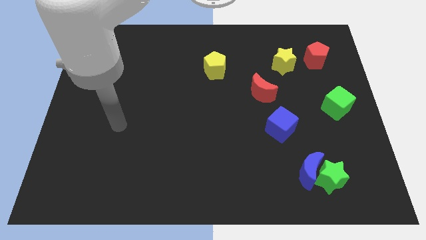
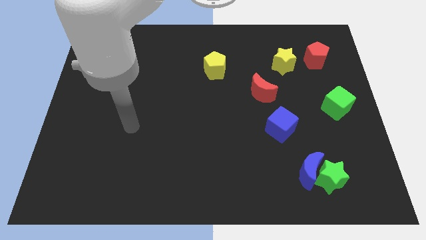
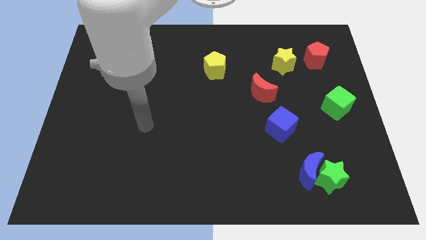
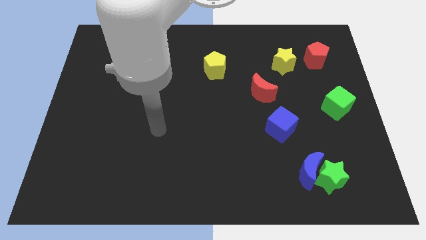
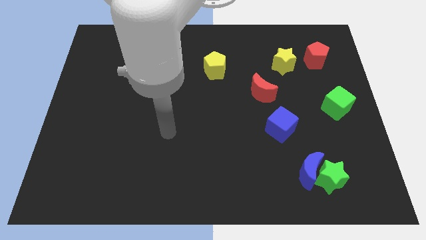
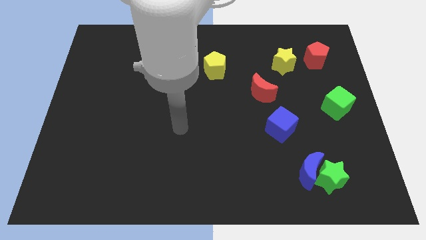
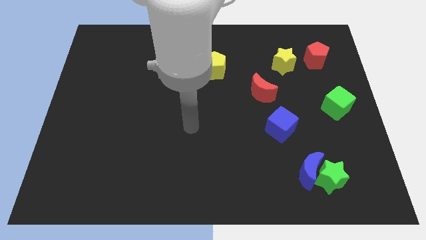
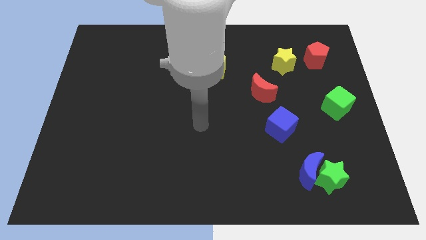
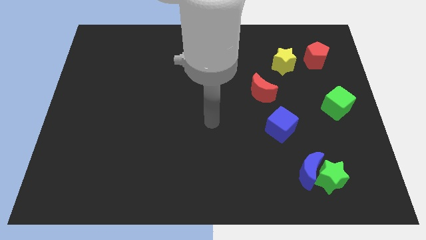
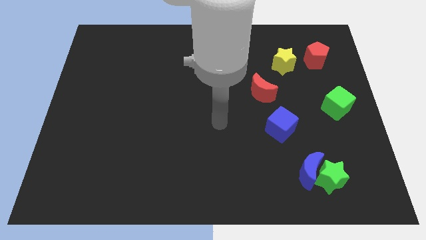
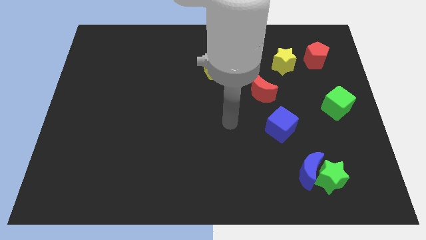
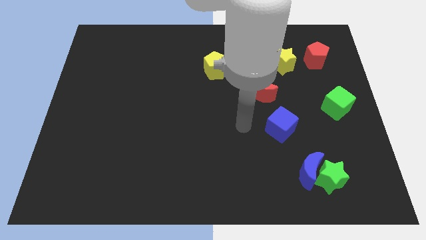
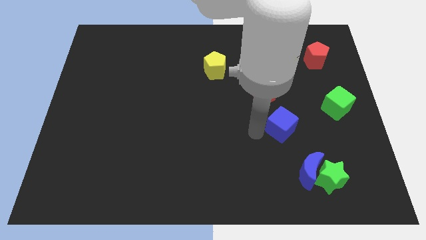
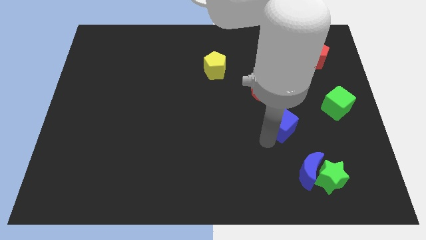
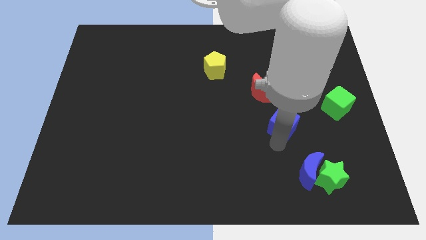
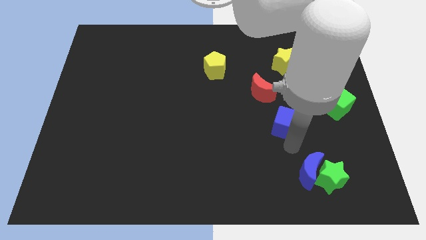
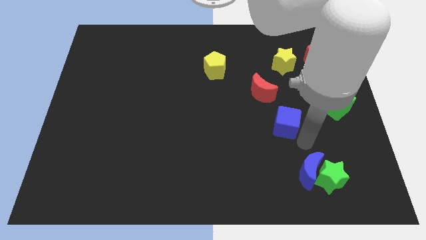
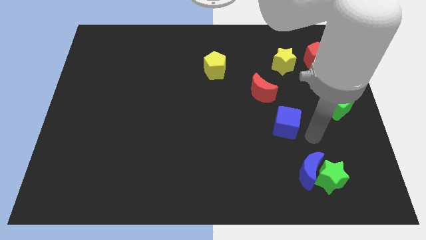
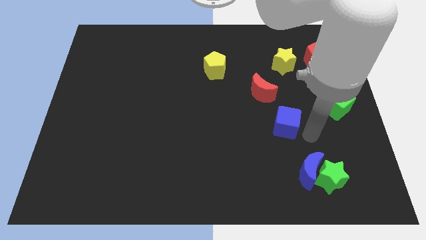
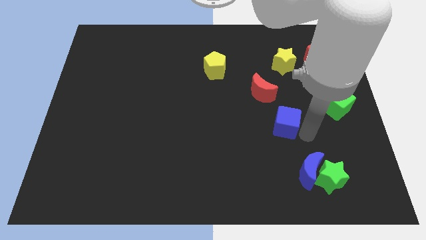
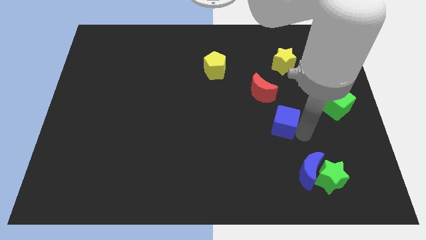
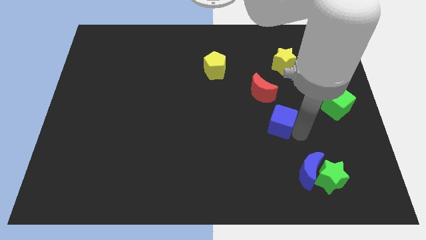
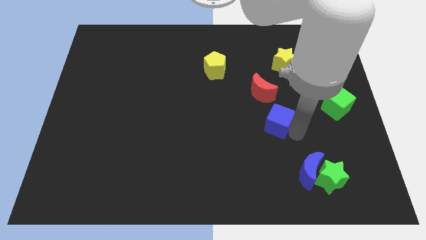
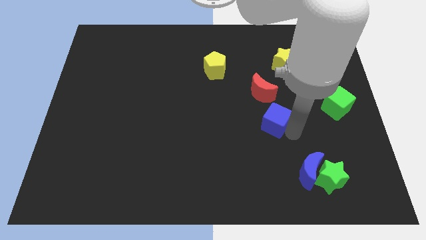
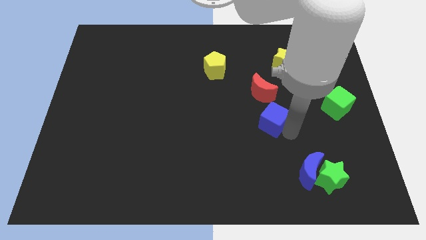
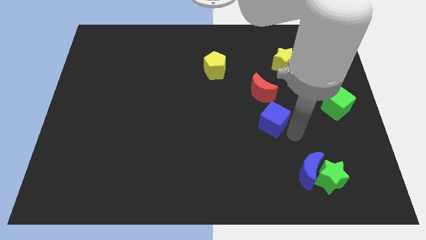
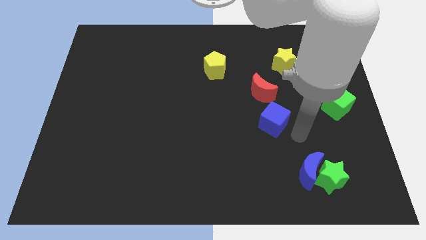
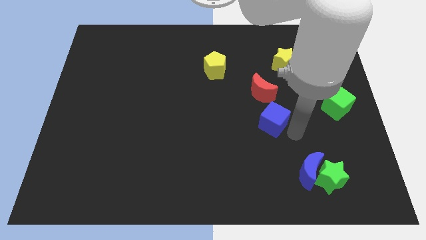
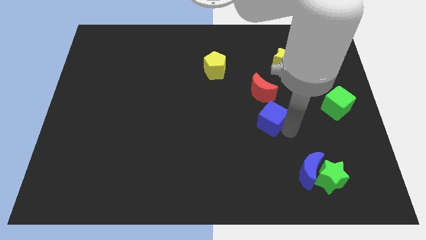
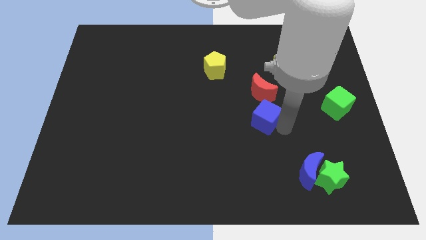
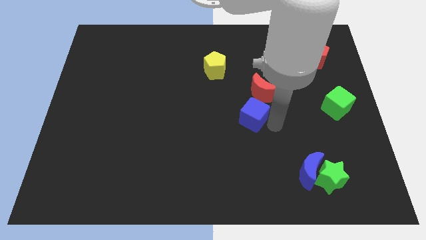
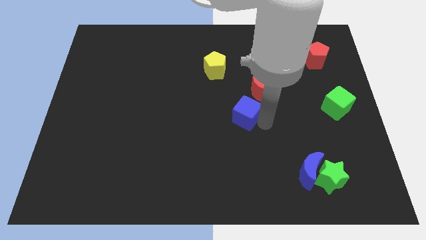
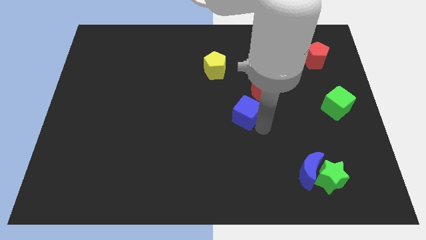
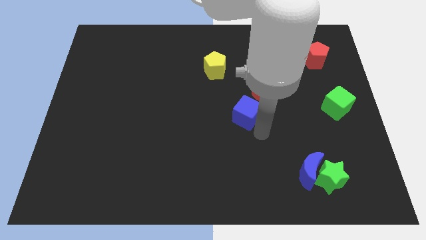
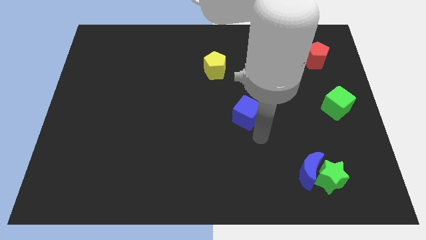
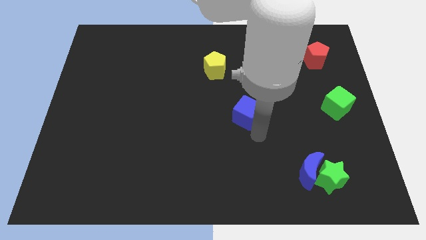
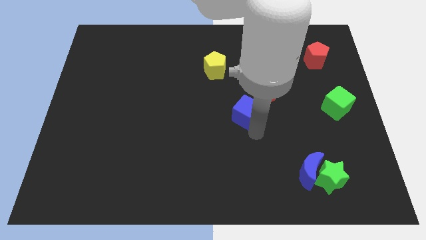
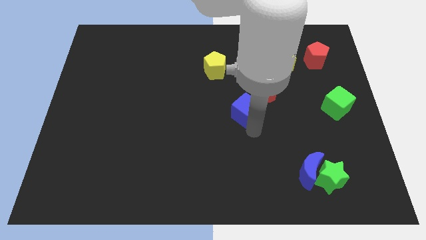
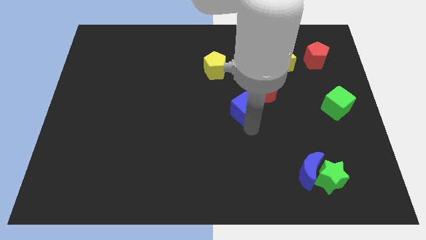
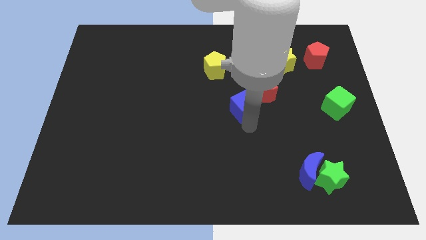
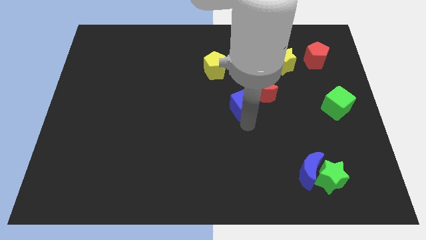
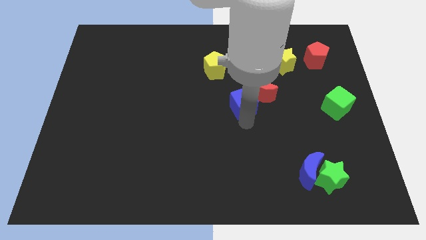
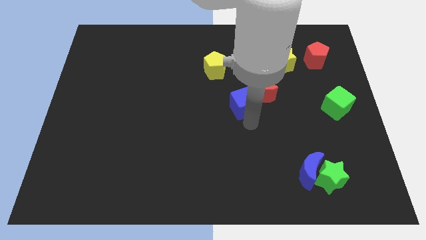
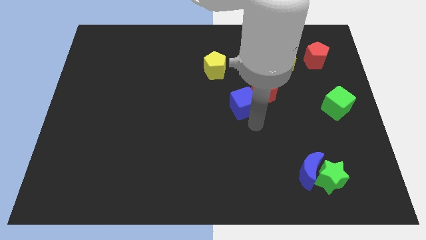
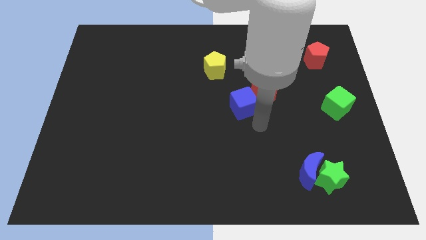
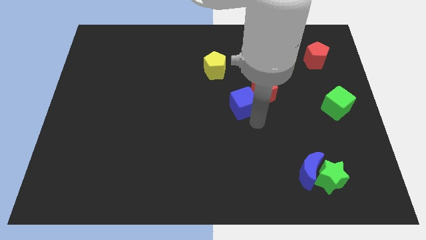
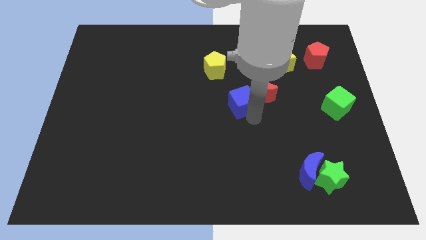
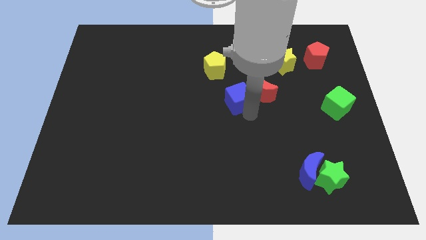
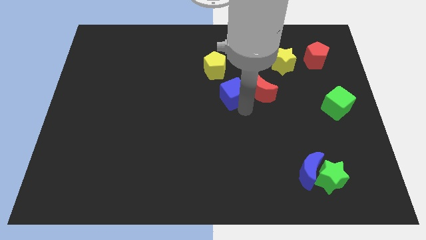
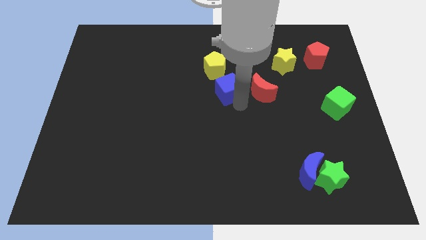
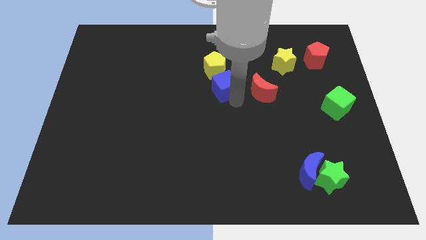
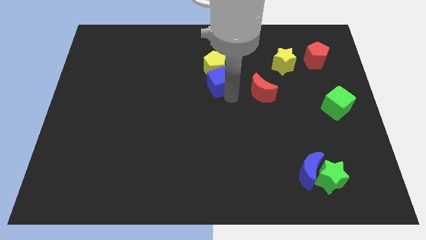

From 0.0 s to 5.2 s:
slide the blue cube towards the yellow pentagon

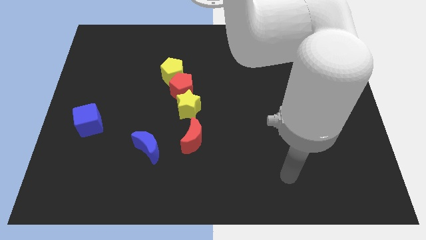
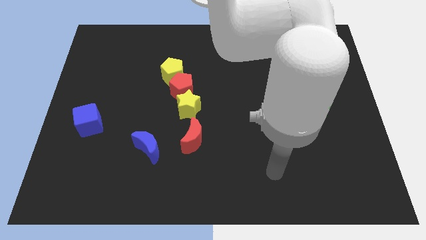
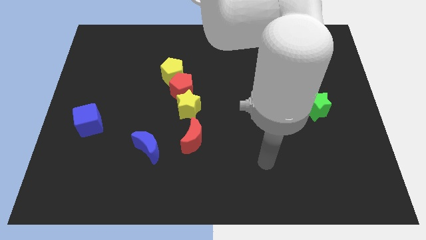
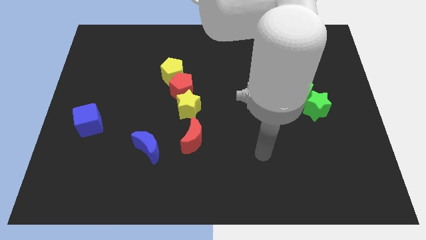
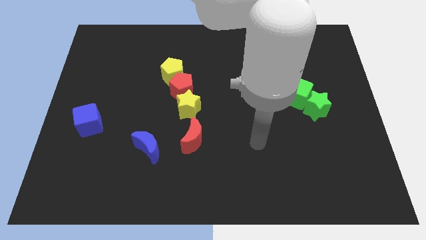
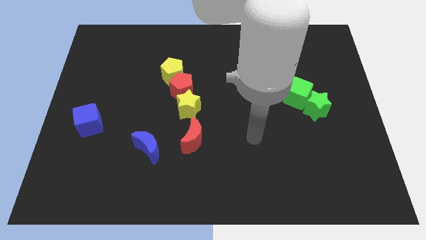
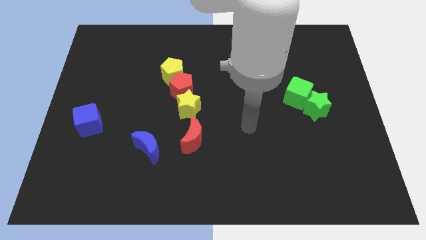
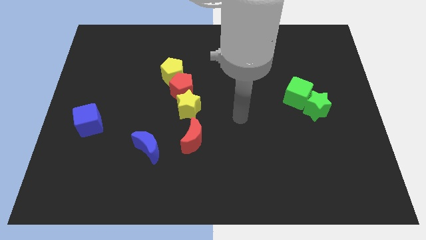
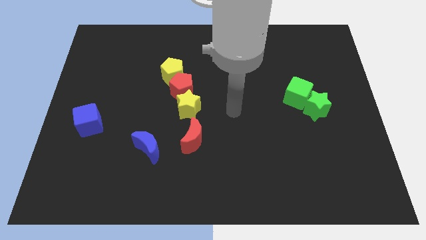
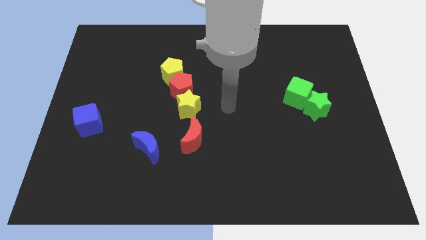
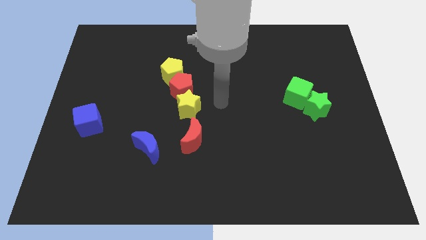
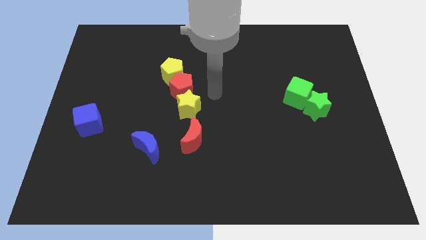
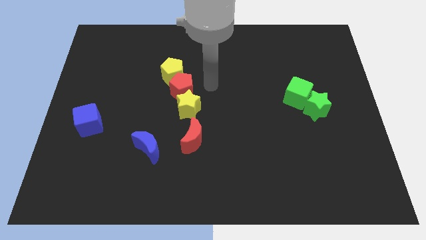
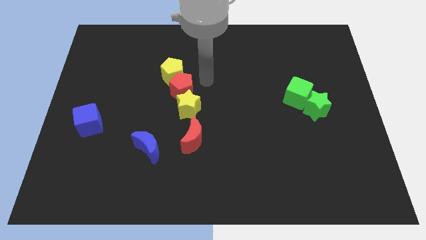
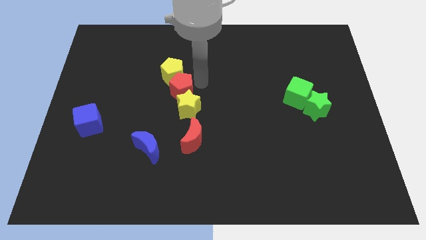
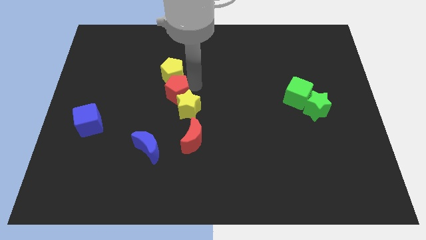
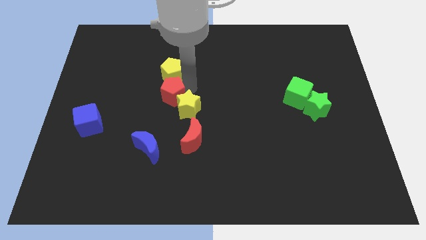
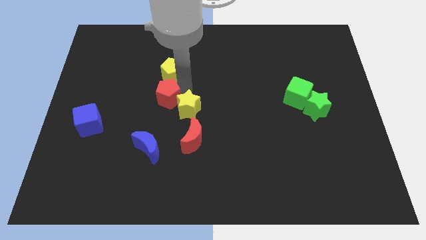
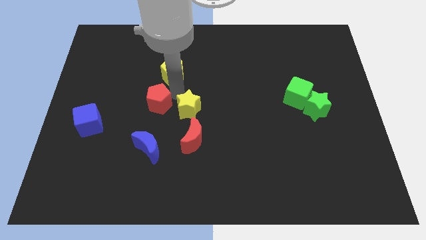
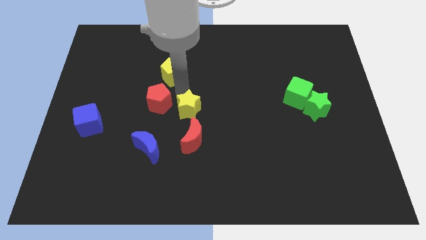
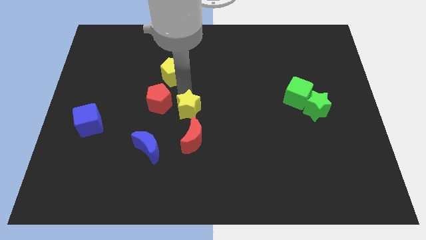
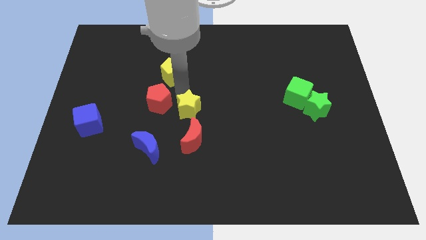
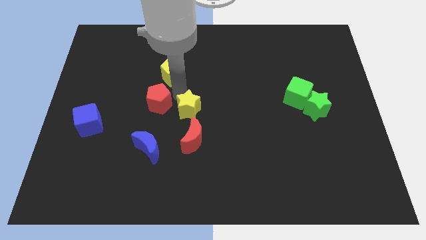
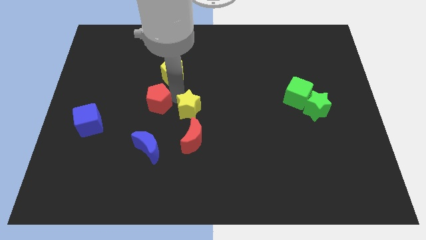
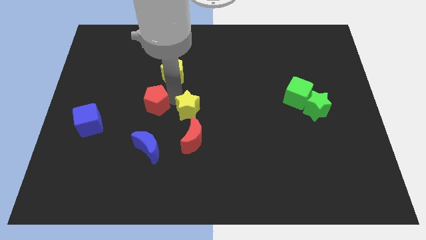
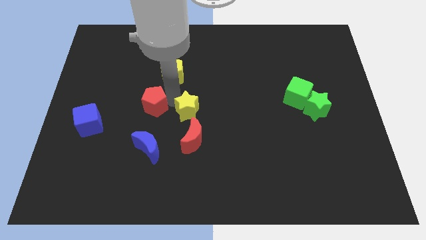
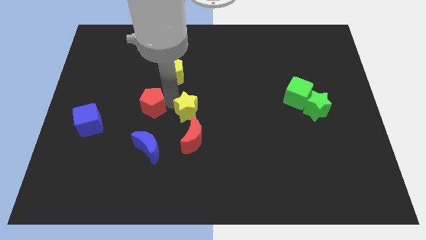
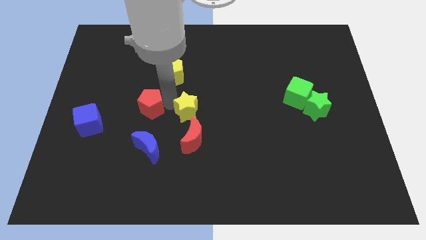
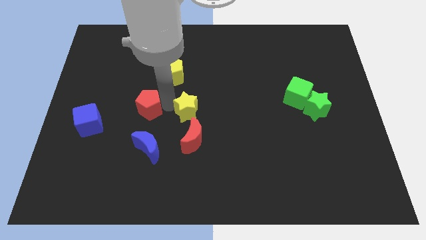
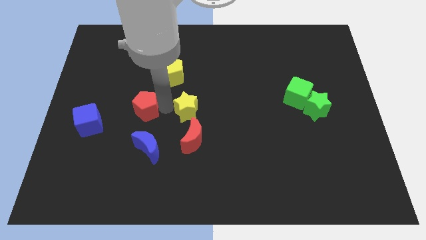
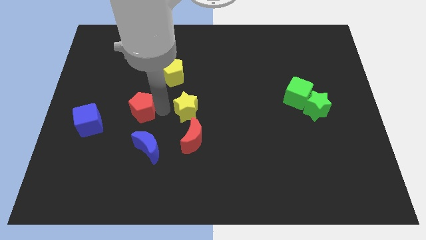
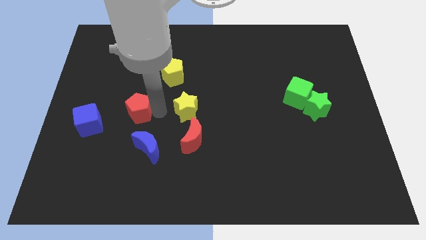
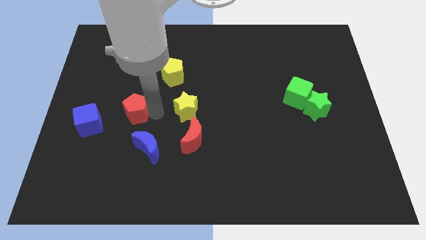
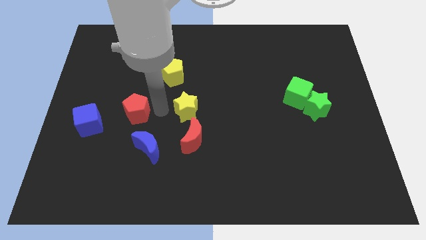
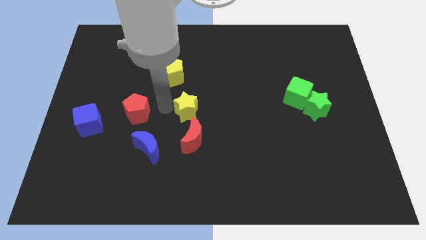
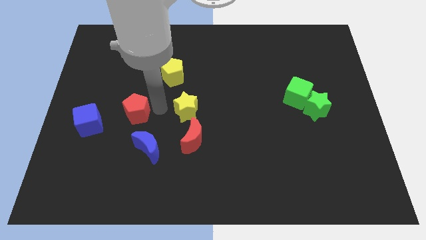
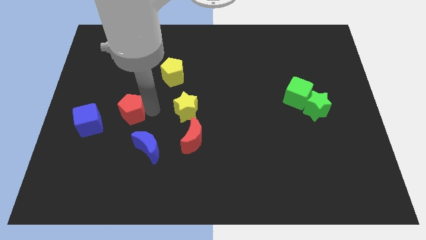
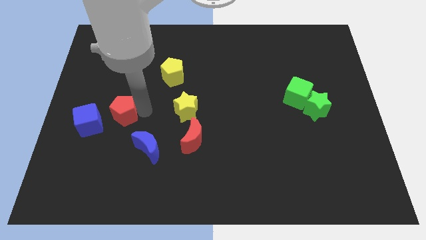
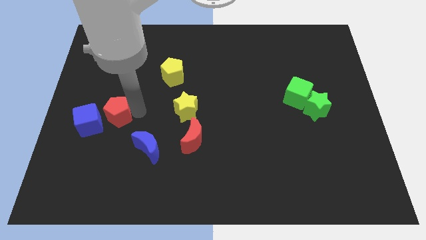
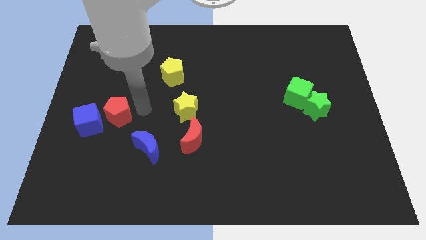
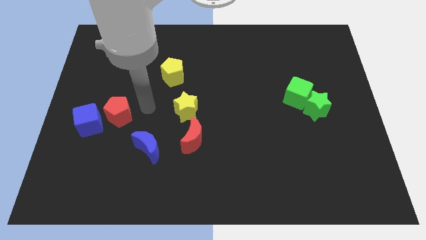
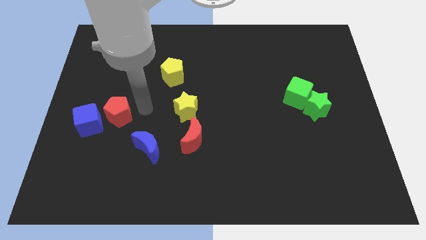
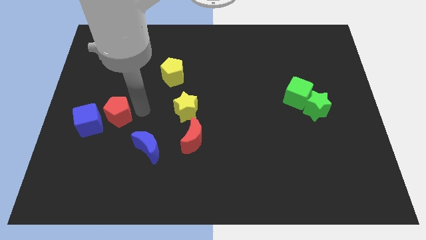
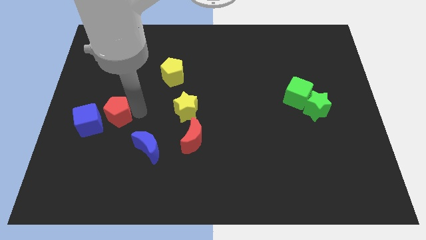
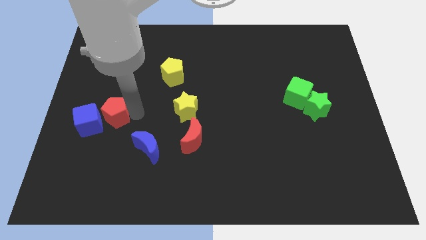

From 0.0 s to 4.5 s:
move the red pentagon towards the blue cube
